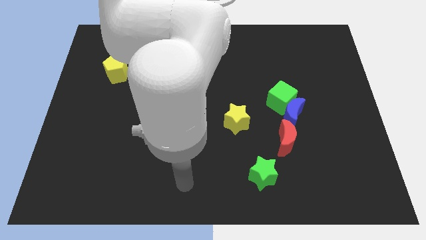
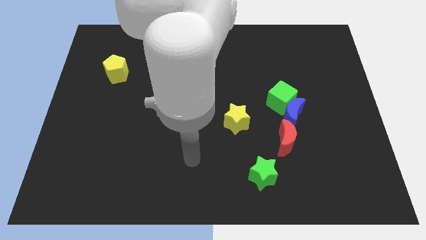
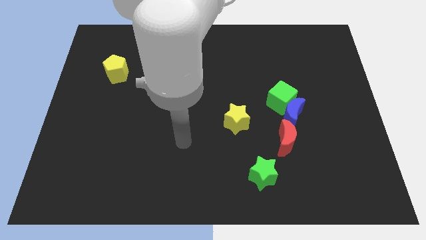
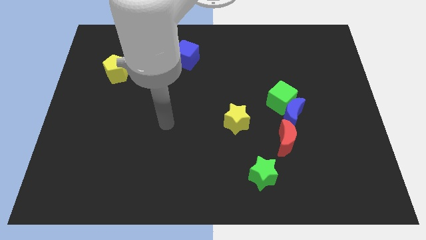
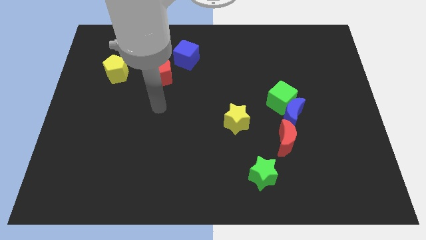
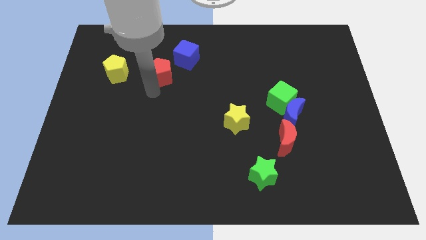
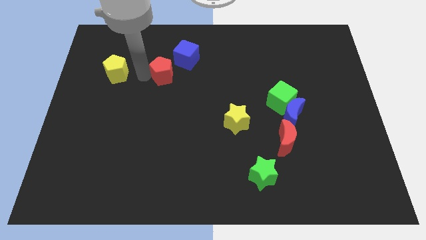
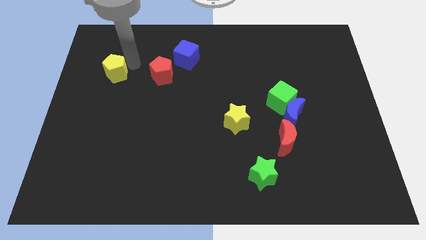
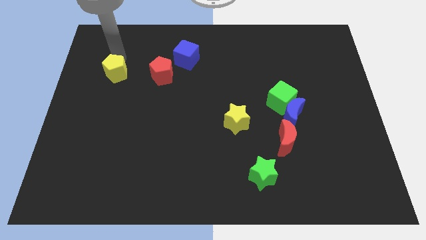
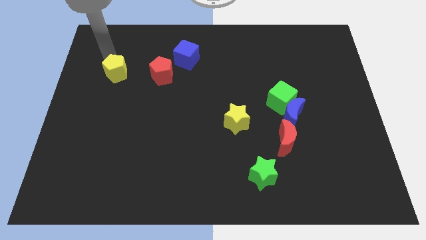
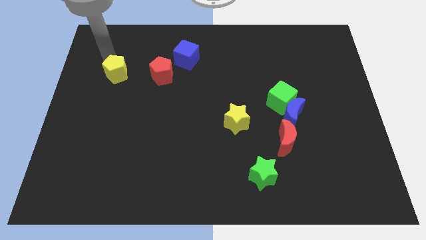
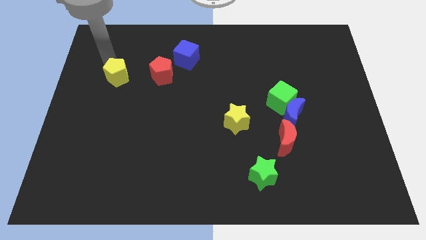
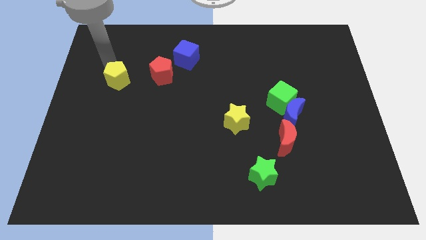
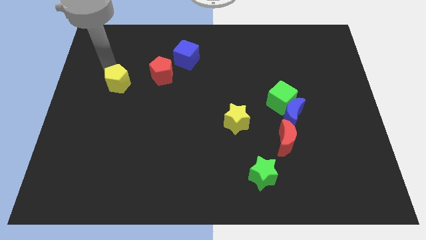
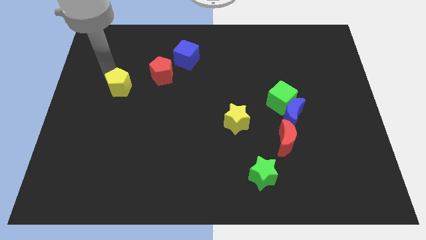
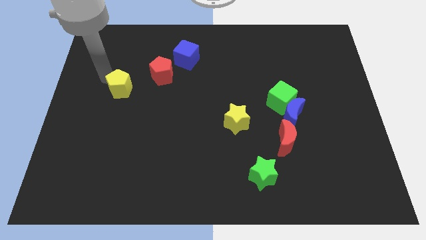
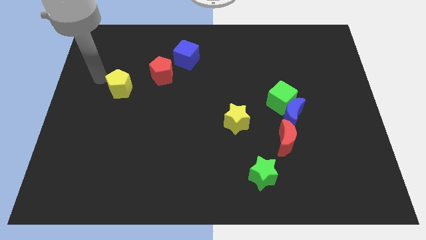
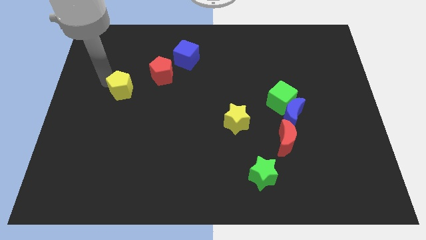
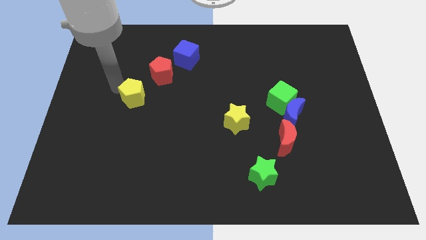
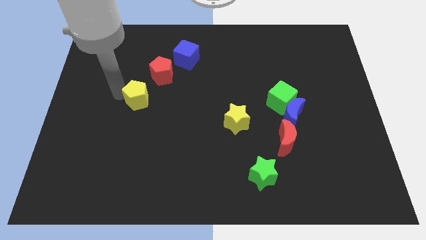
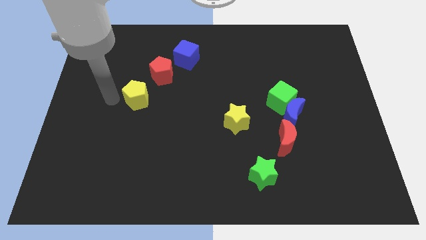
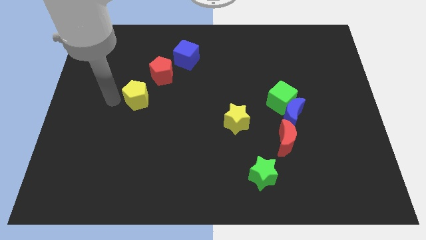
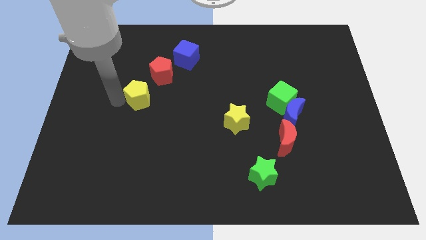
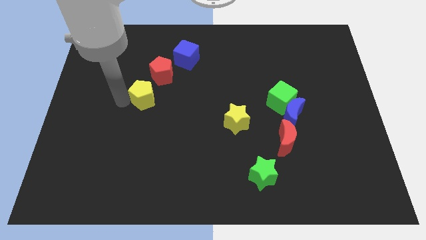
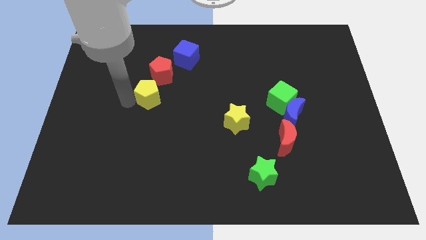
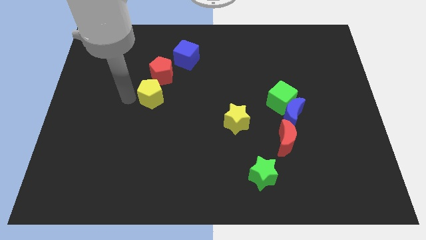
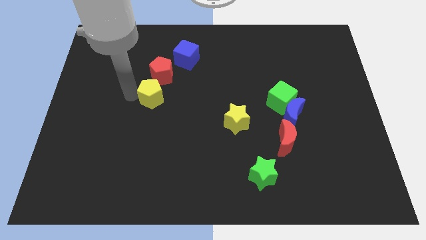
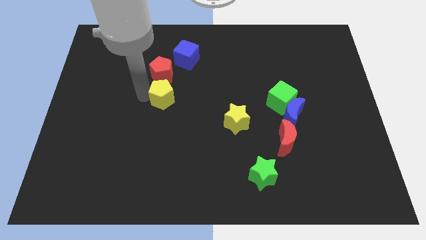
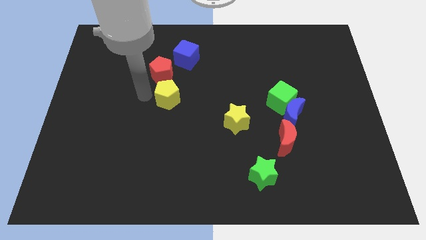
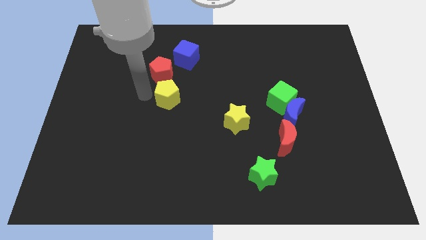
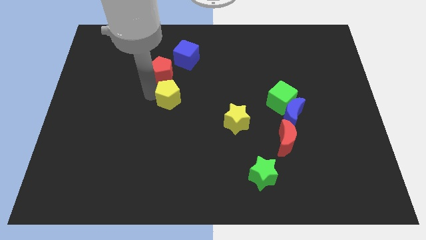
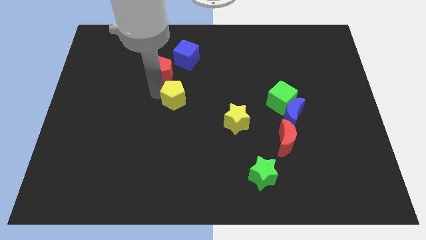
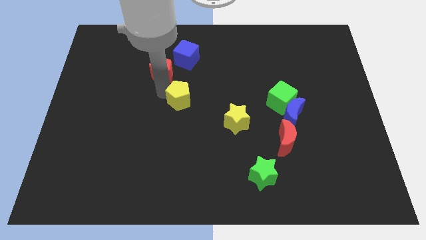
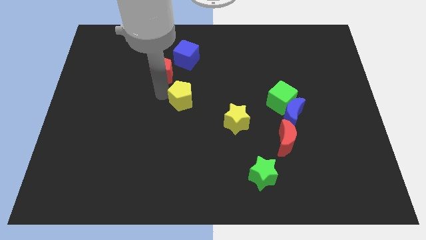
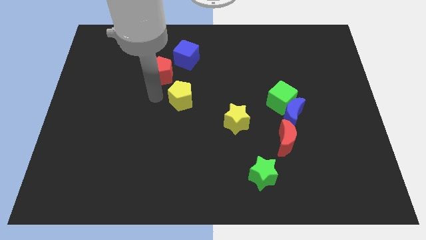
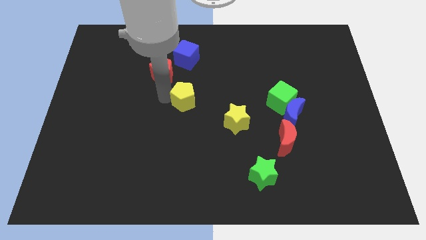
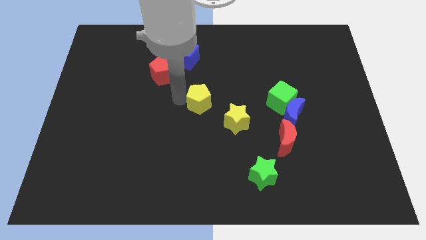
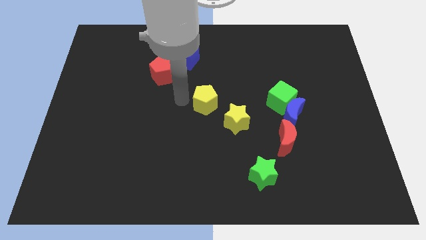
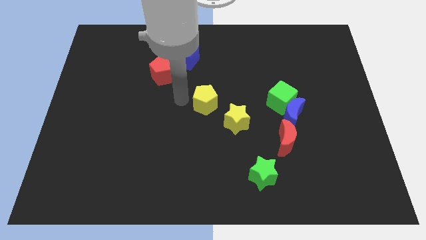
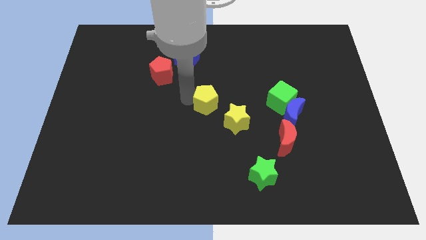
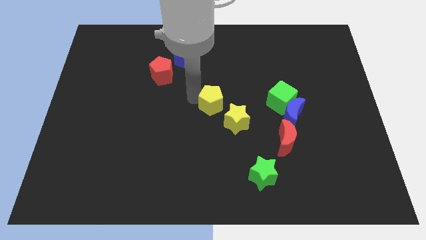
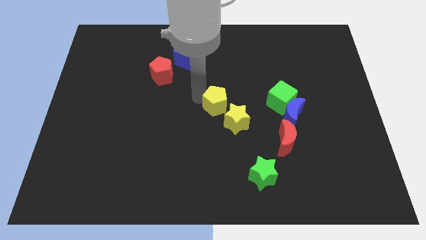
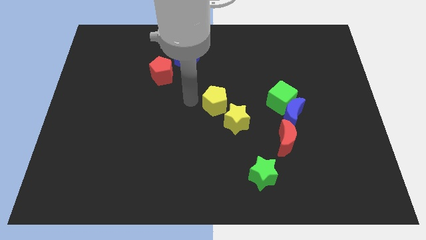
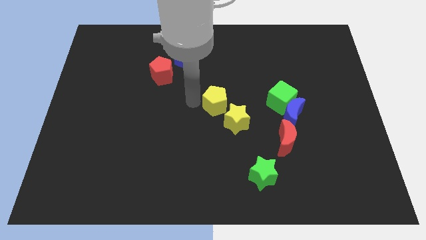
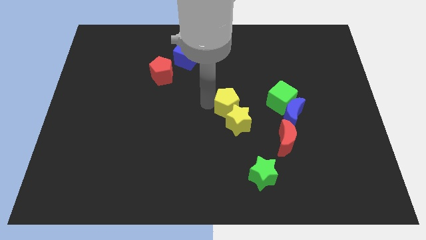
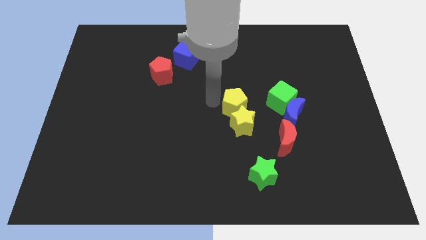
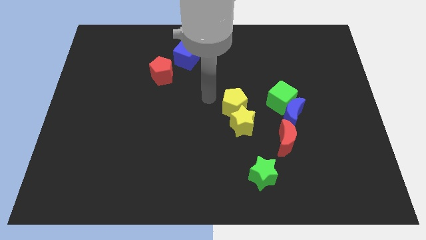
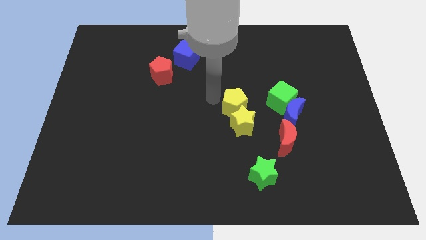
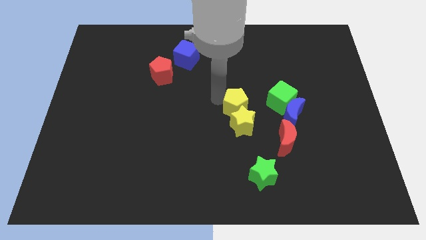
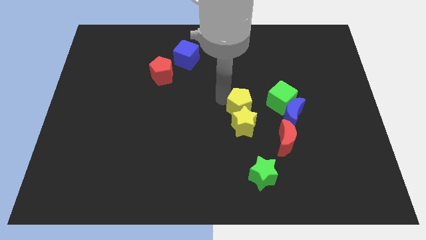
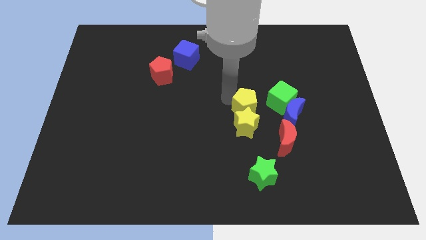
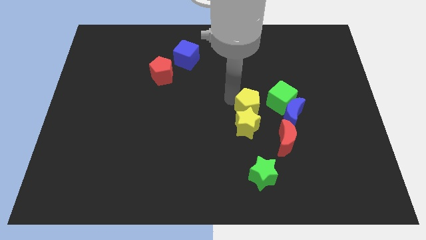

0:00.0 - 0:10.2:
move the yellow pentagon to the top left side of the red moon

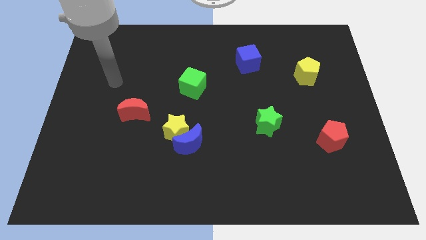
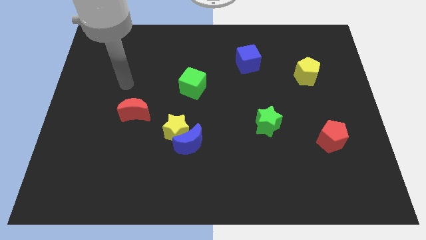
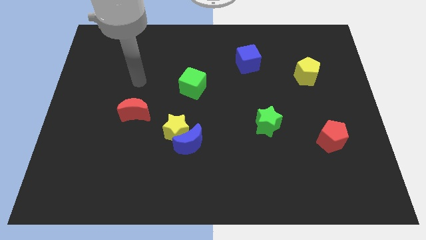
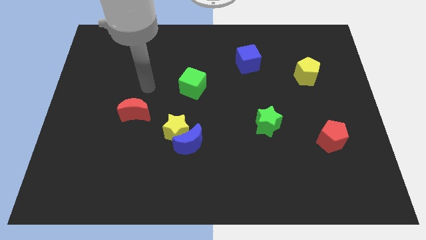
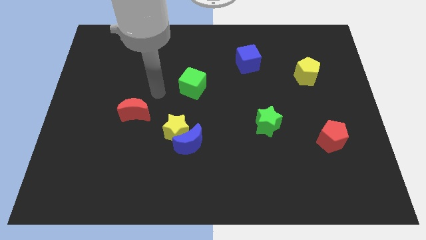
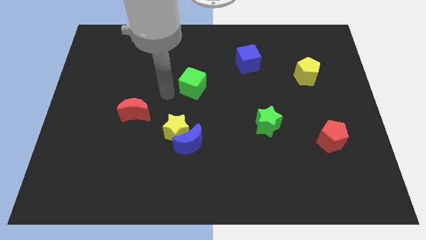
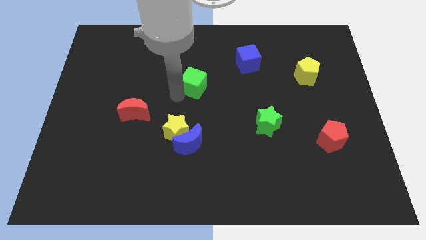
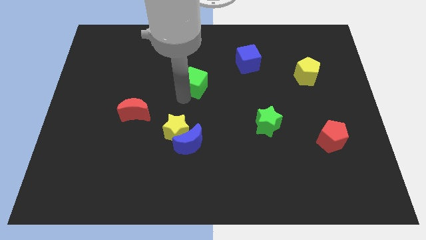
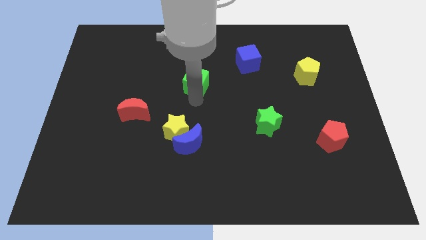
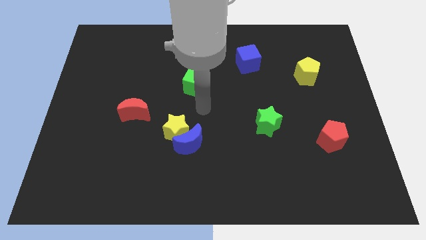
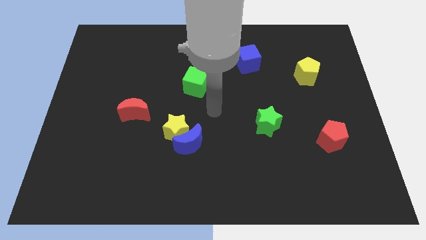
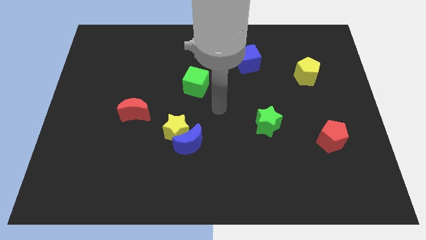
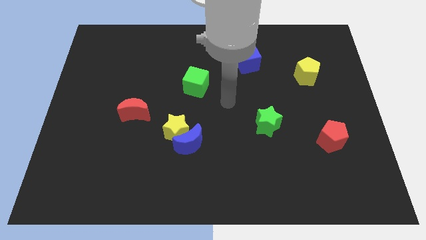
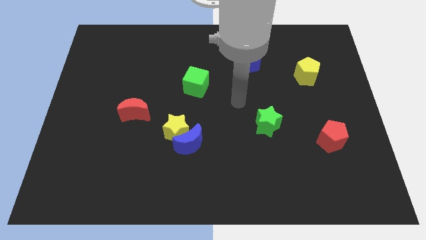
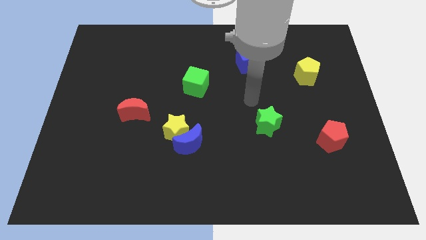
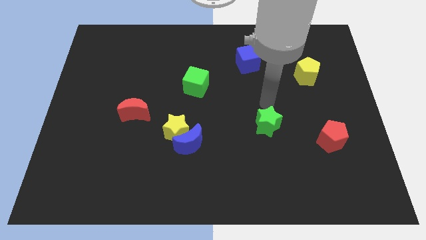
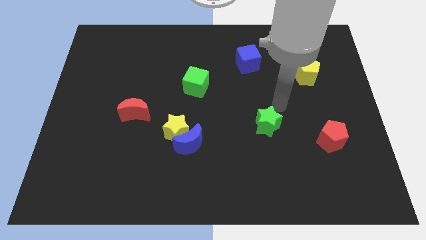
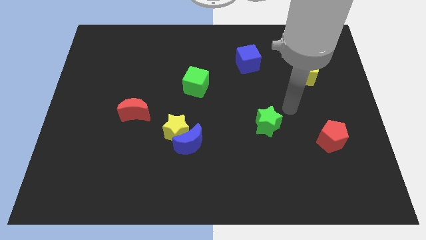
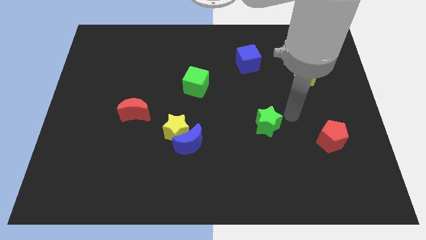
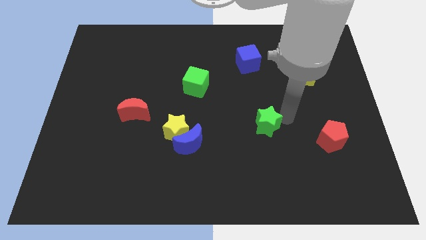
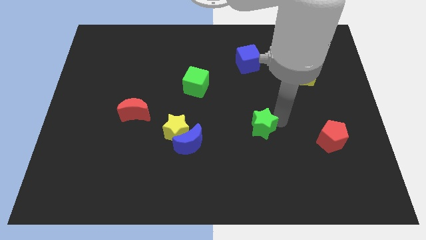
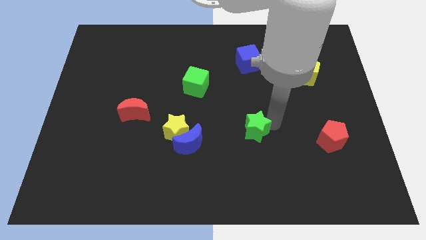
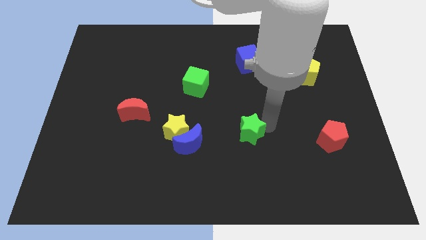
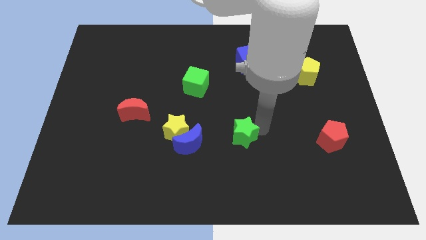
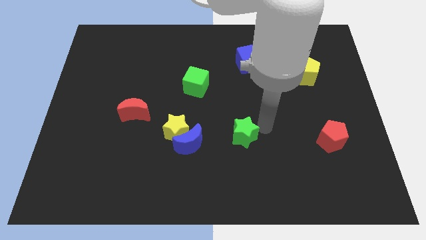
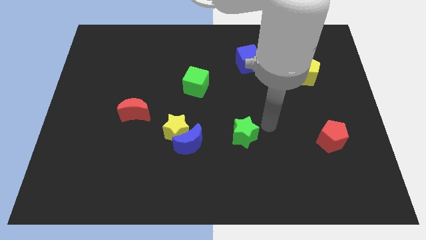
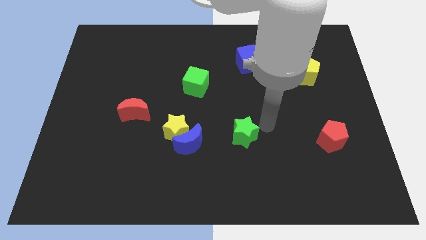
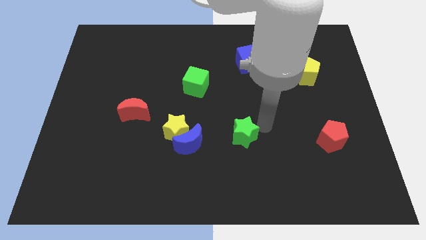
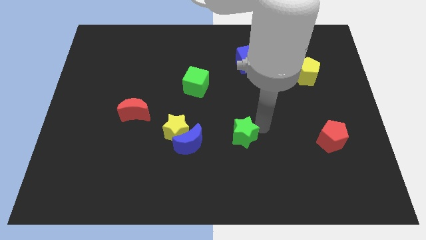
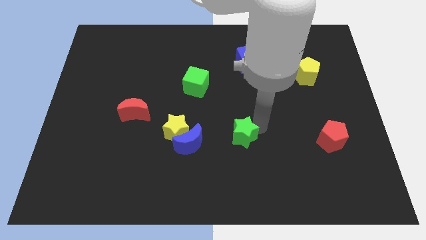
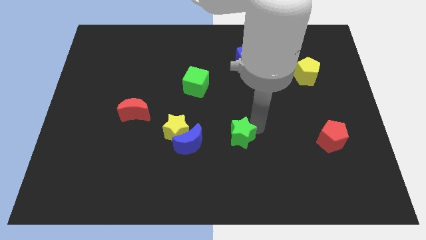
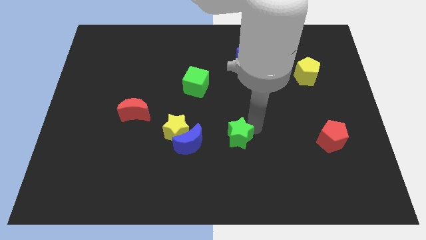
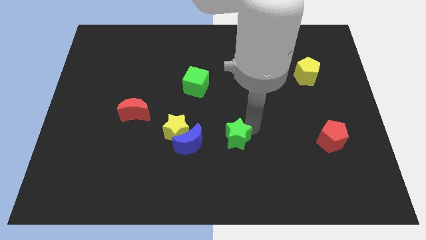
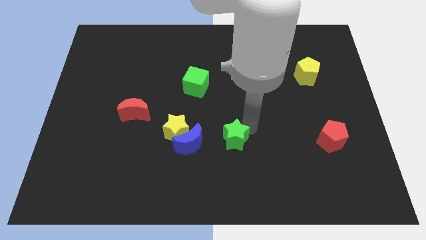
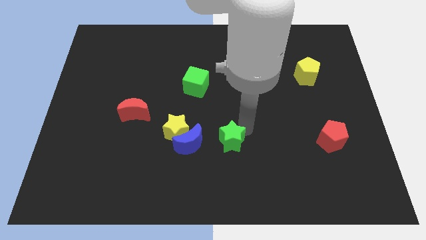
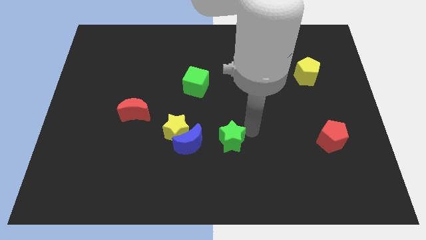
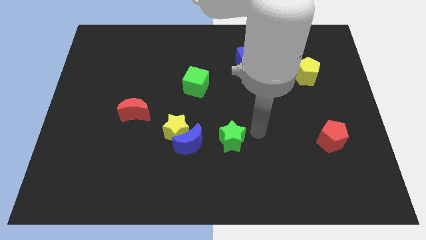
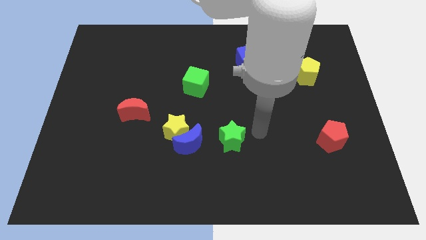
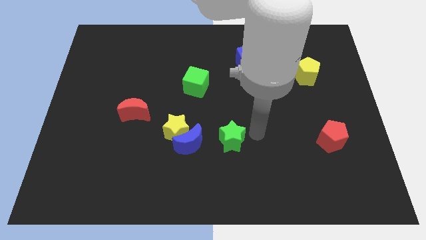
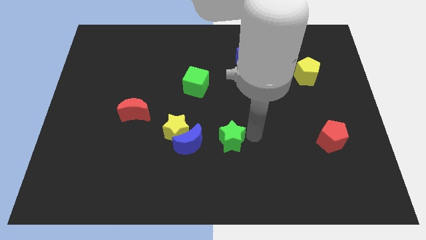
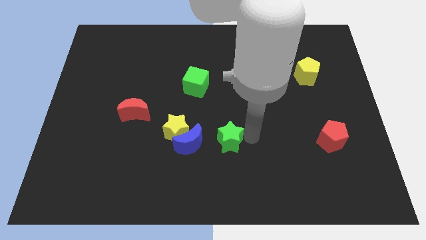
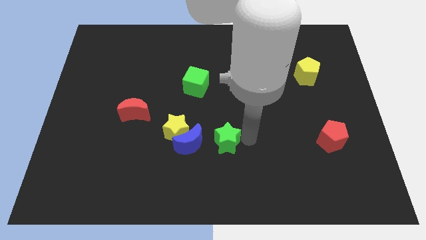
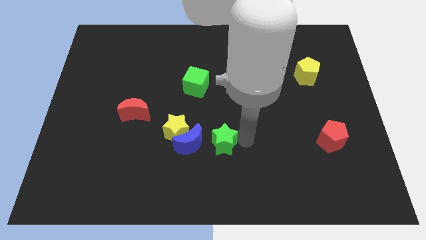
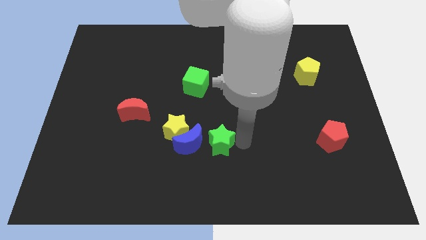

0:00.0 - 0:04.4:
put the green star diagonally down and to the right of the yellow star
